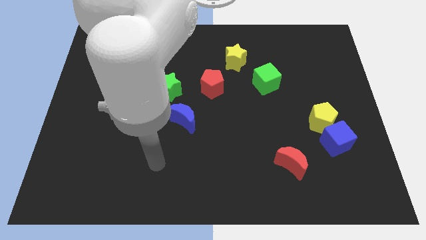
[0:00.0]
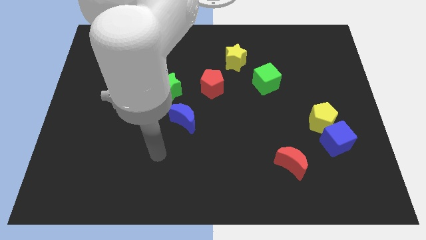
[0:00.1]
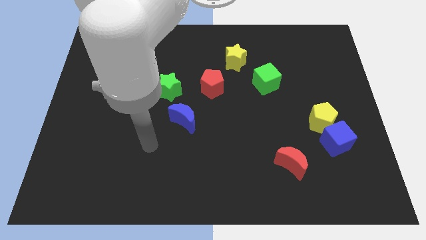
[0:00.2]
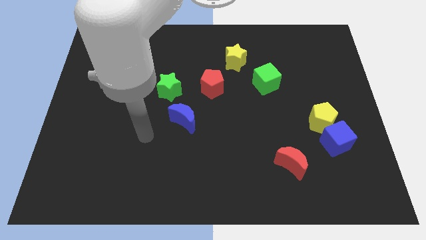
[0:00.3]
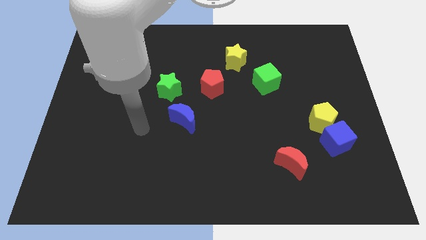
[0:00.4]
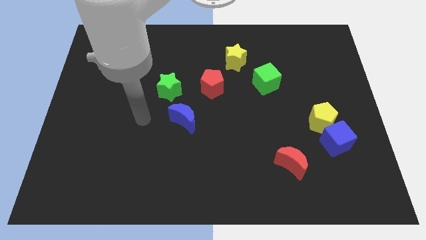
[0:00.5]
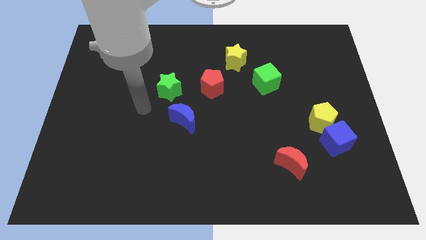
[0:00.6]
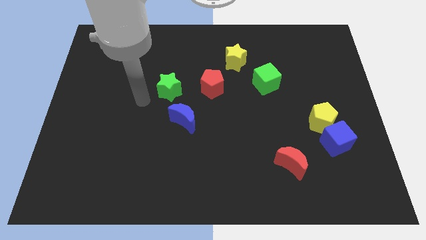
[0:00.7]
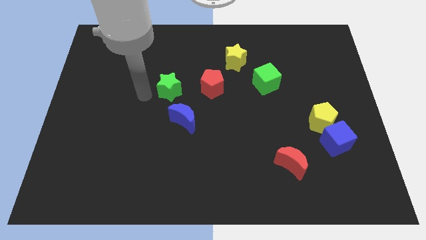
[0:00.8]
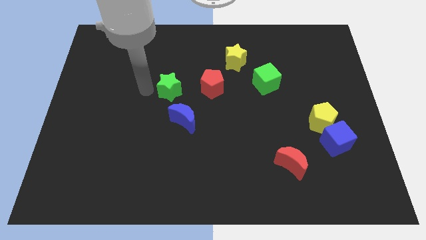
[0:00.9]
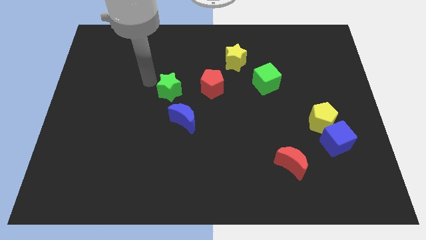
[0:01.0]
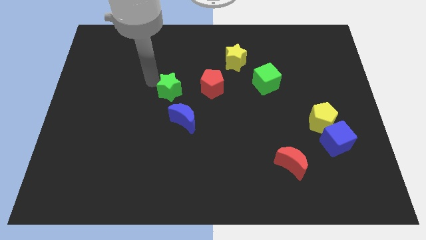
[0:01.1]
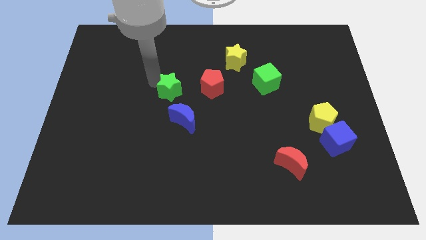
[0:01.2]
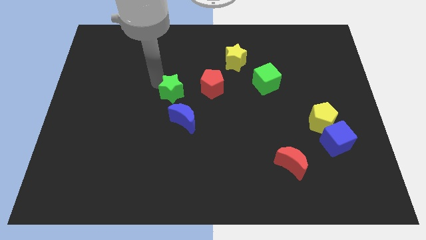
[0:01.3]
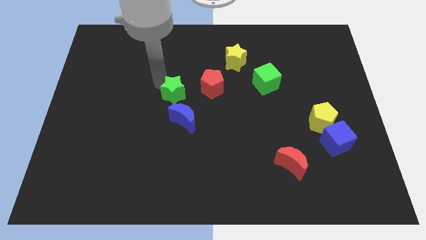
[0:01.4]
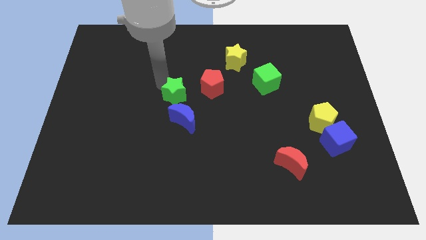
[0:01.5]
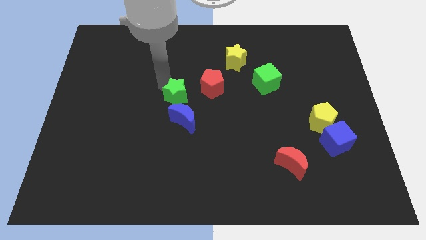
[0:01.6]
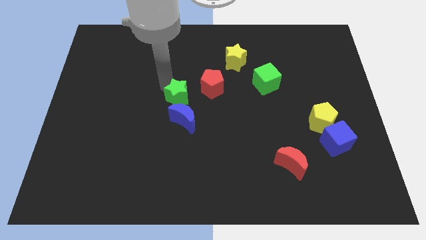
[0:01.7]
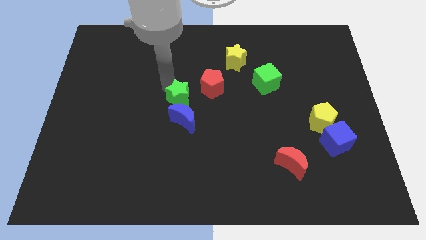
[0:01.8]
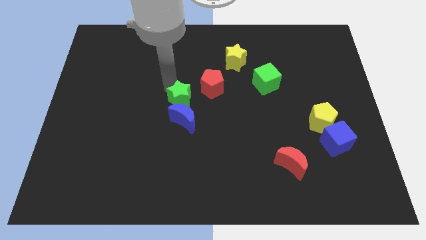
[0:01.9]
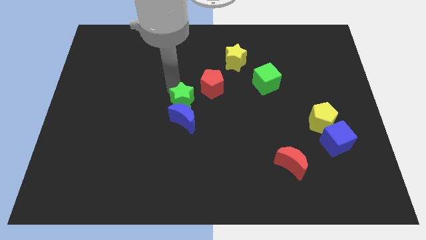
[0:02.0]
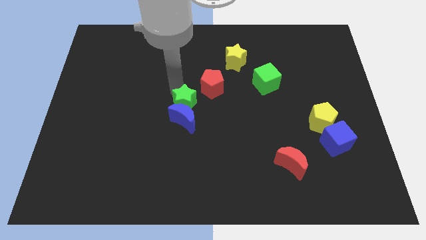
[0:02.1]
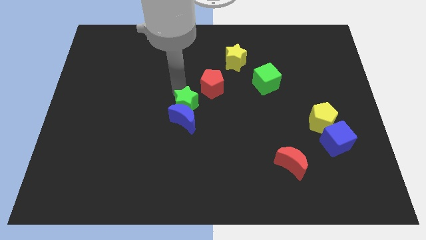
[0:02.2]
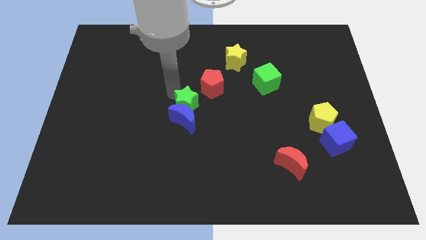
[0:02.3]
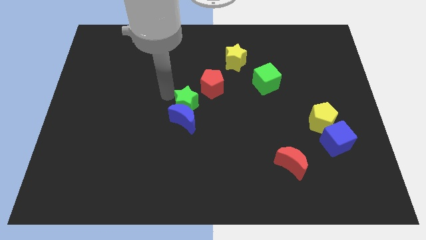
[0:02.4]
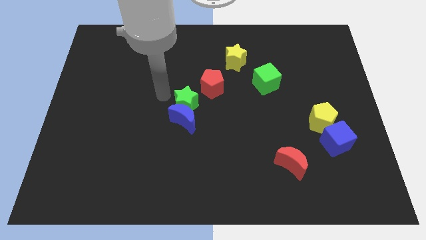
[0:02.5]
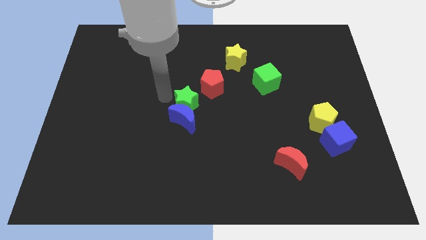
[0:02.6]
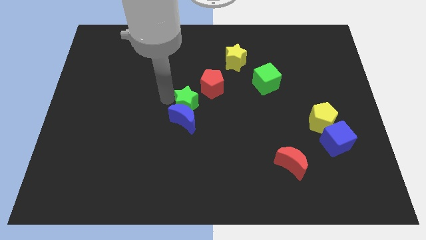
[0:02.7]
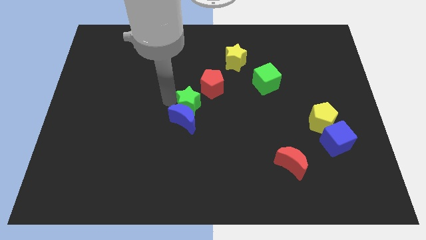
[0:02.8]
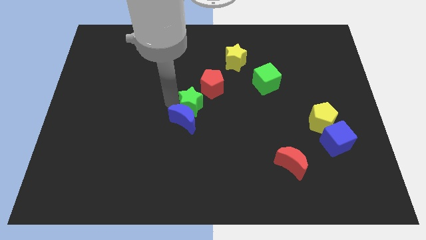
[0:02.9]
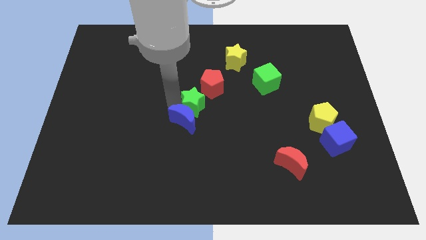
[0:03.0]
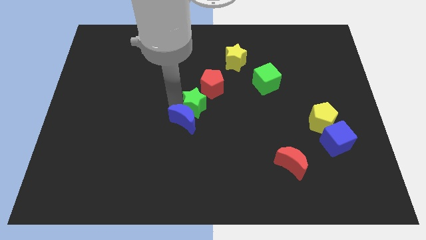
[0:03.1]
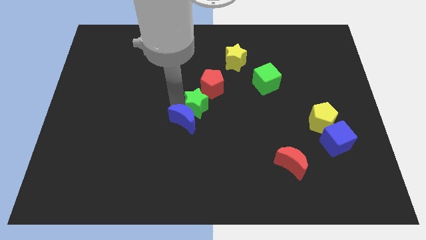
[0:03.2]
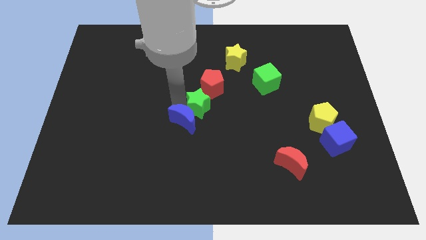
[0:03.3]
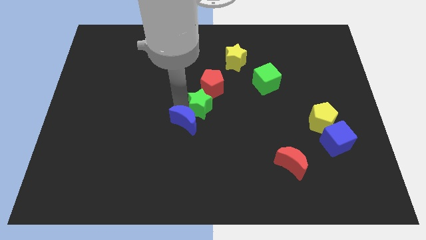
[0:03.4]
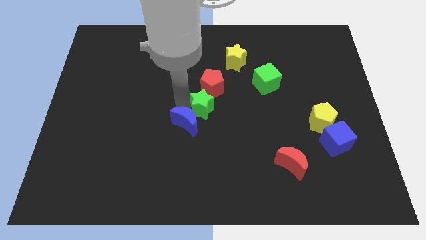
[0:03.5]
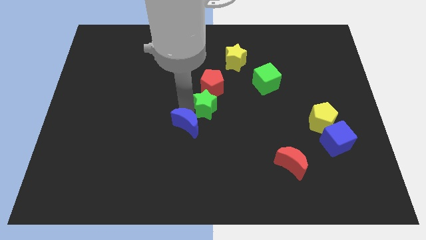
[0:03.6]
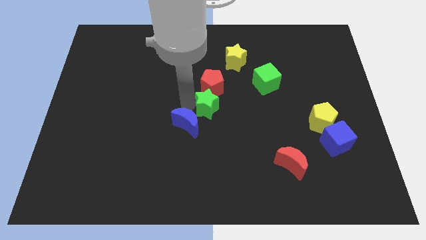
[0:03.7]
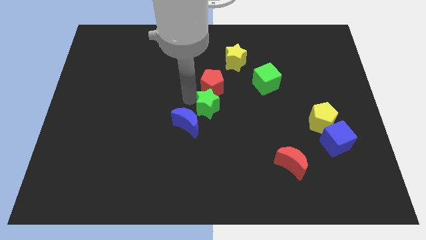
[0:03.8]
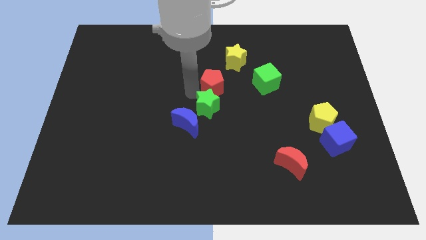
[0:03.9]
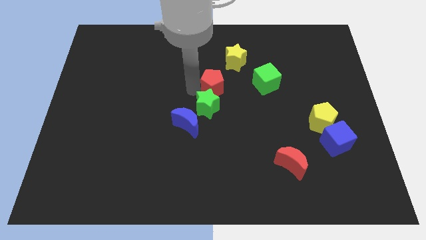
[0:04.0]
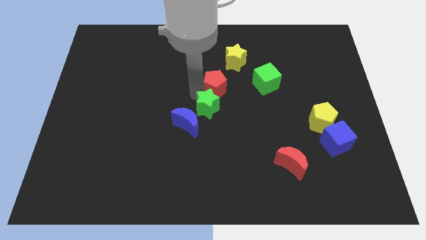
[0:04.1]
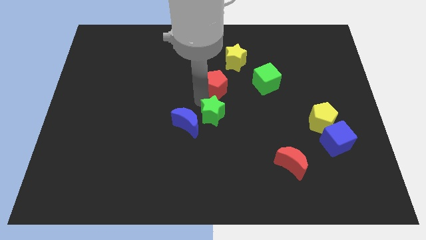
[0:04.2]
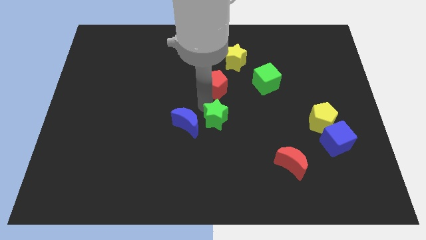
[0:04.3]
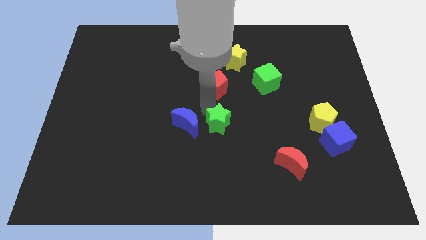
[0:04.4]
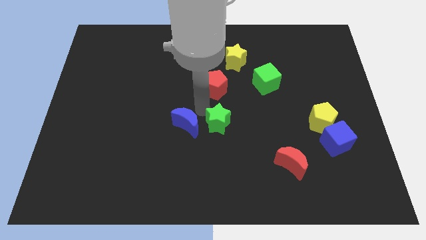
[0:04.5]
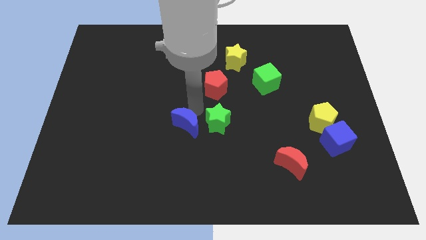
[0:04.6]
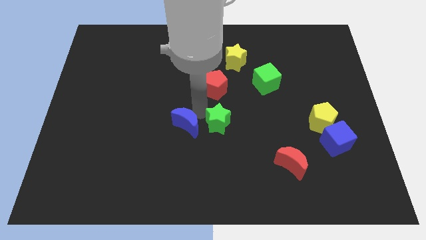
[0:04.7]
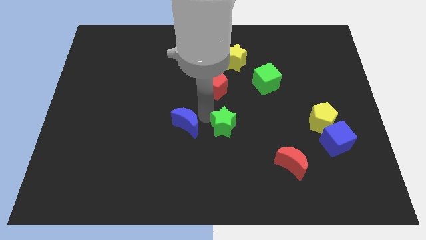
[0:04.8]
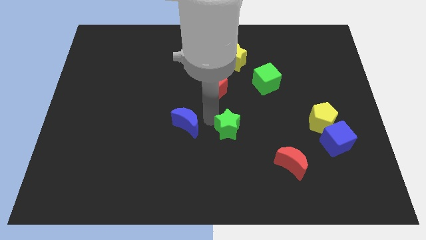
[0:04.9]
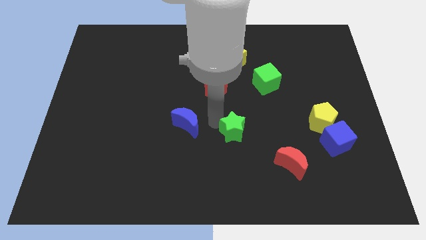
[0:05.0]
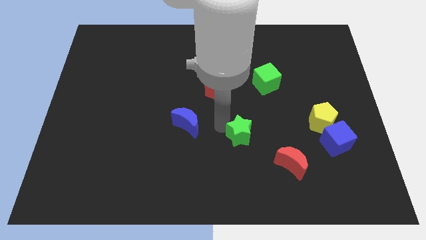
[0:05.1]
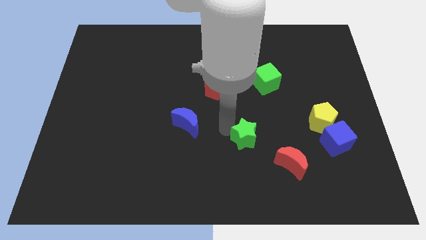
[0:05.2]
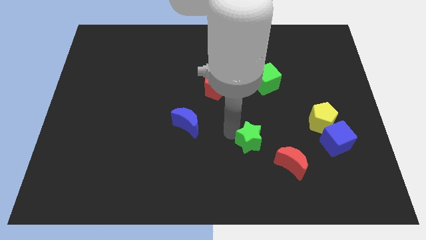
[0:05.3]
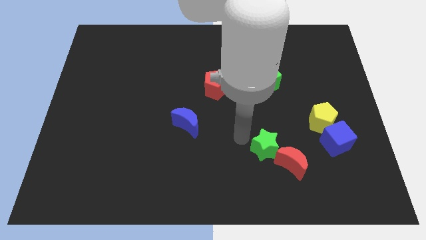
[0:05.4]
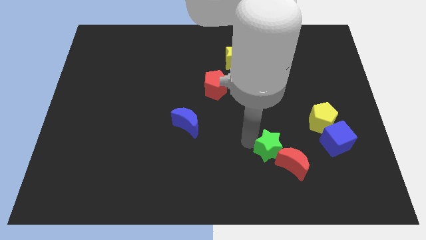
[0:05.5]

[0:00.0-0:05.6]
put the green star towards the red moon

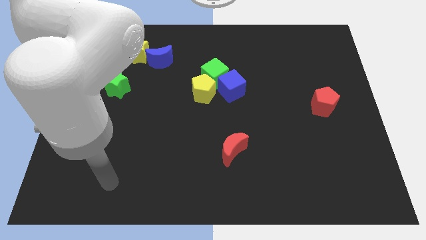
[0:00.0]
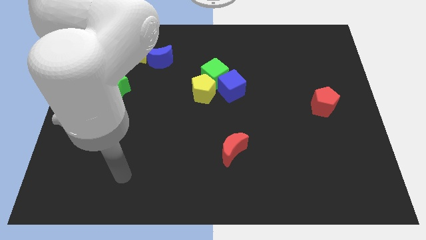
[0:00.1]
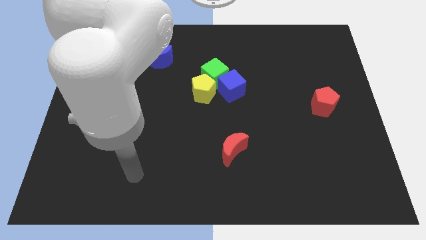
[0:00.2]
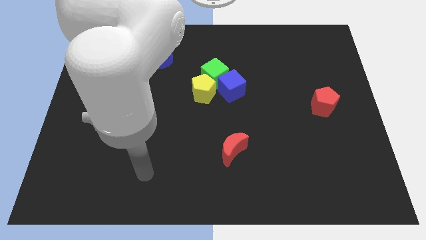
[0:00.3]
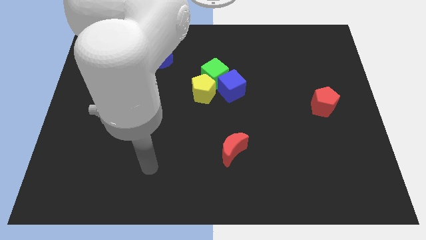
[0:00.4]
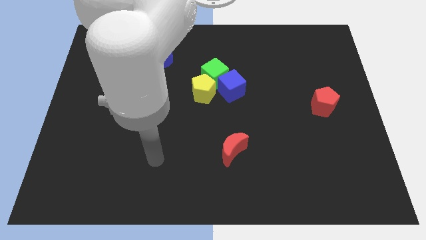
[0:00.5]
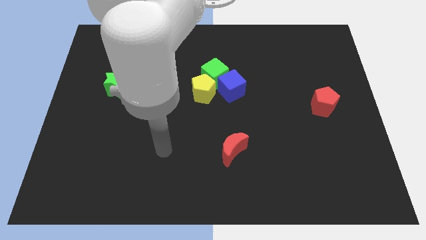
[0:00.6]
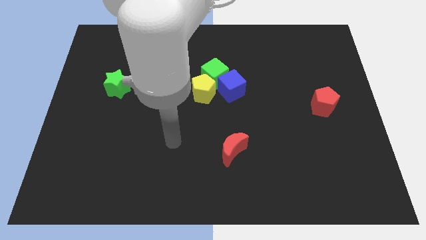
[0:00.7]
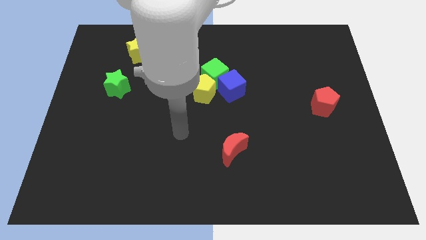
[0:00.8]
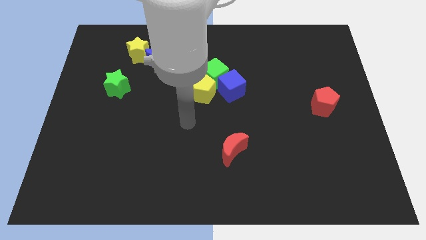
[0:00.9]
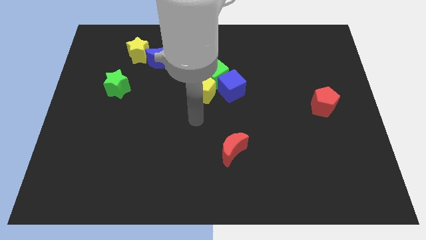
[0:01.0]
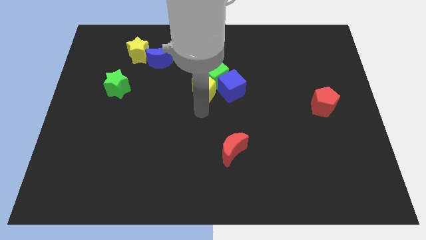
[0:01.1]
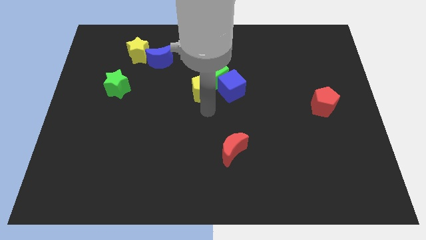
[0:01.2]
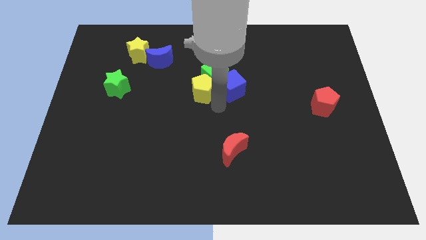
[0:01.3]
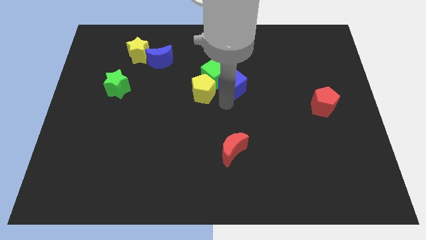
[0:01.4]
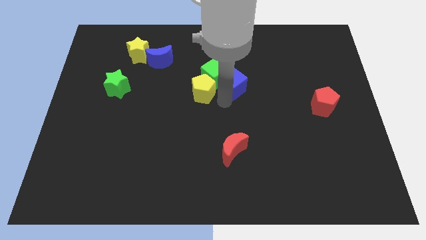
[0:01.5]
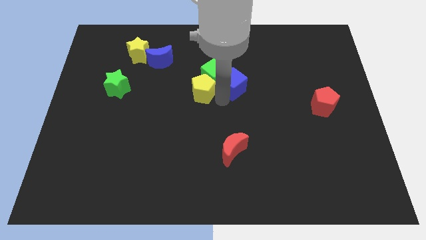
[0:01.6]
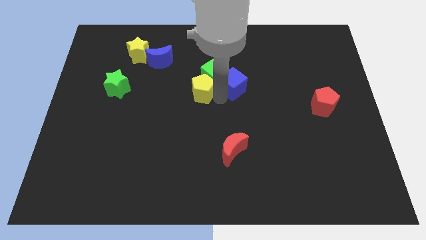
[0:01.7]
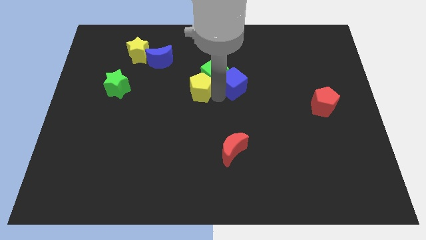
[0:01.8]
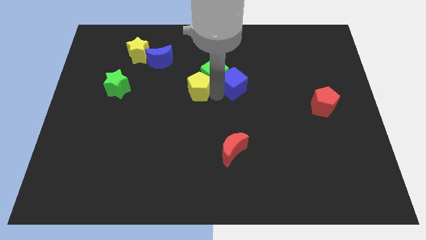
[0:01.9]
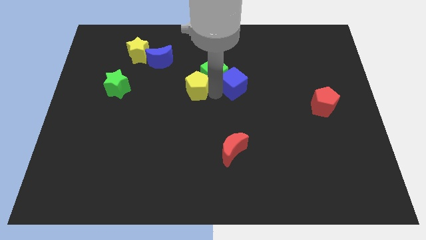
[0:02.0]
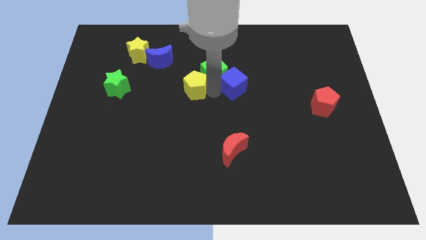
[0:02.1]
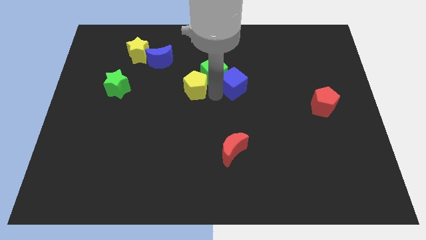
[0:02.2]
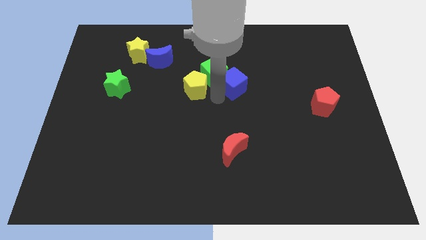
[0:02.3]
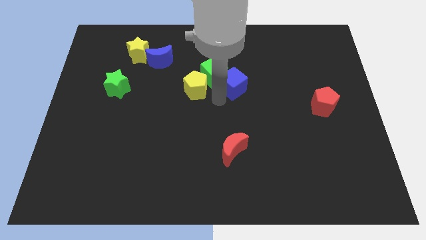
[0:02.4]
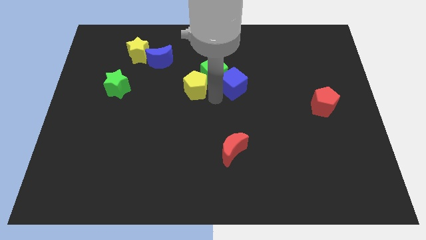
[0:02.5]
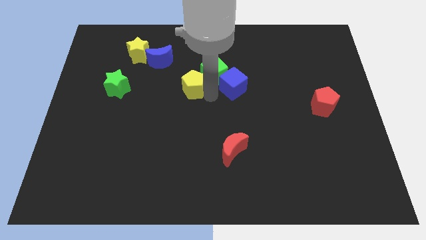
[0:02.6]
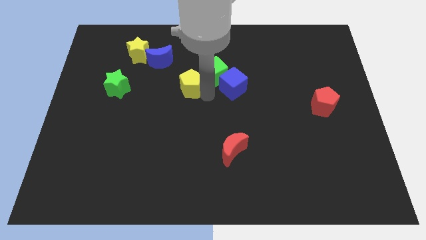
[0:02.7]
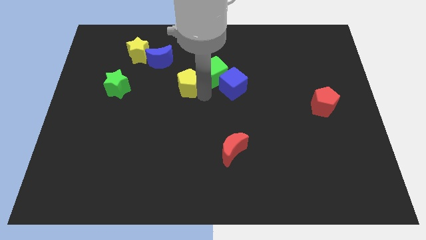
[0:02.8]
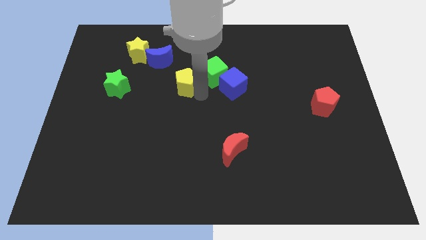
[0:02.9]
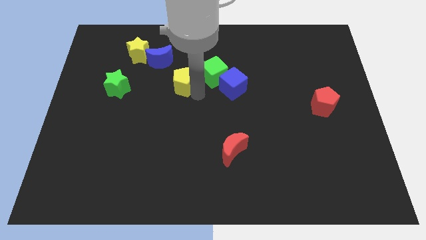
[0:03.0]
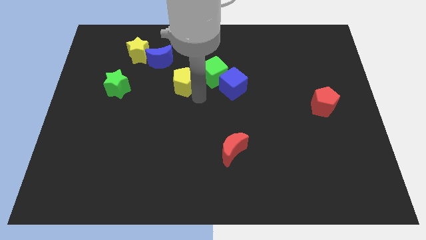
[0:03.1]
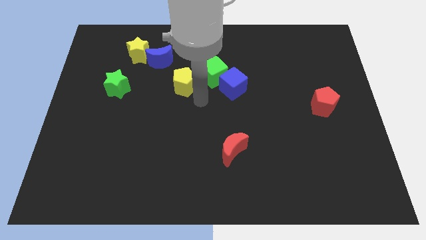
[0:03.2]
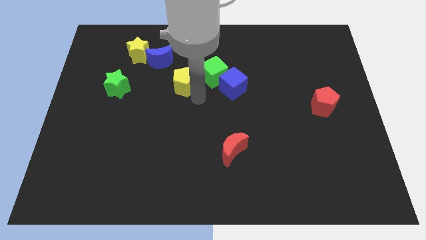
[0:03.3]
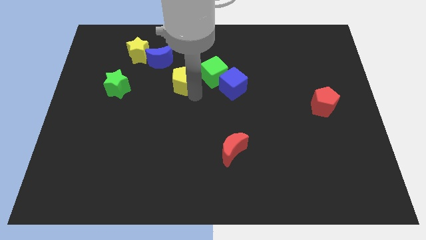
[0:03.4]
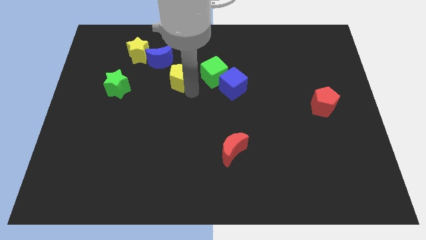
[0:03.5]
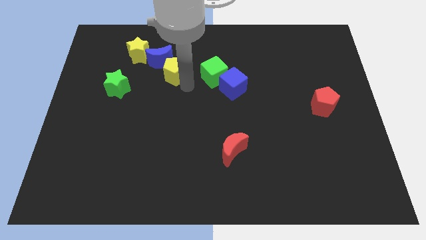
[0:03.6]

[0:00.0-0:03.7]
put the yellow pentagon to the blue moon
